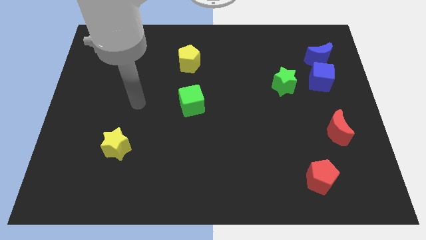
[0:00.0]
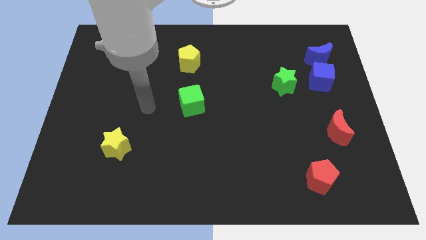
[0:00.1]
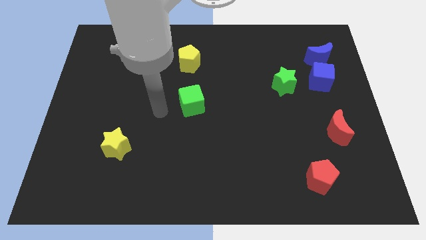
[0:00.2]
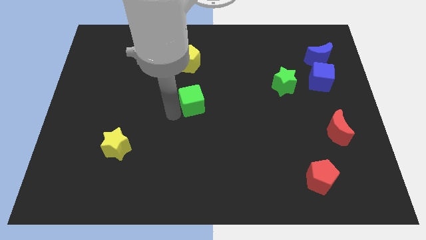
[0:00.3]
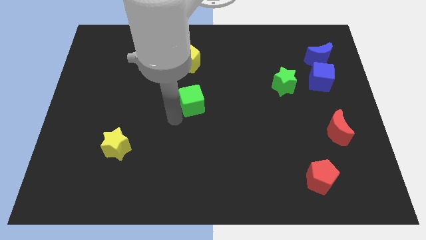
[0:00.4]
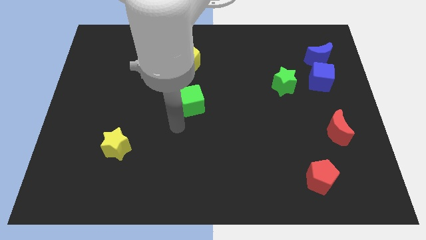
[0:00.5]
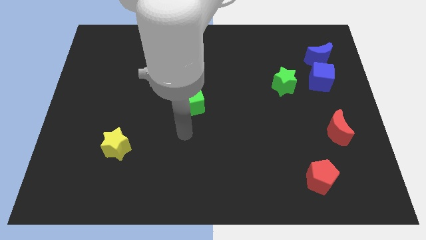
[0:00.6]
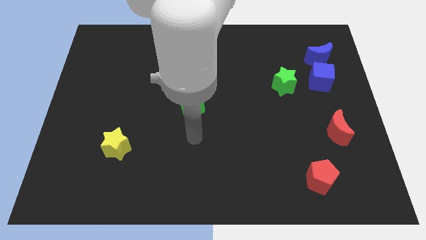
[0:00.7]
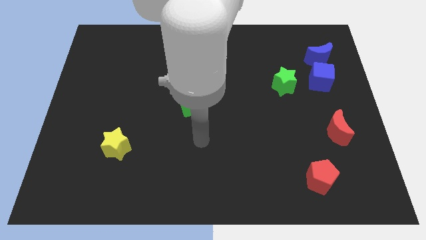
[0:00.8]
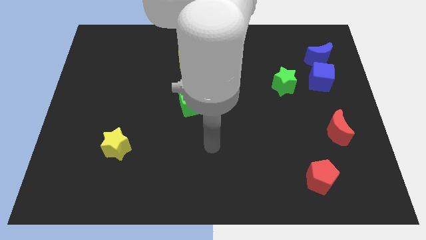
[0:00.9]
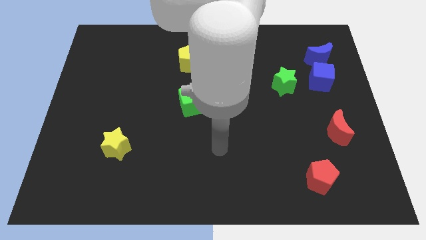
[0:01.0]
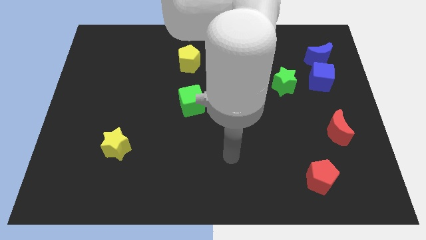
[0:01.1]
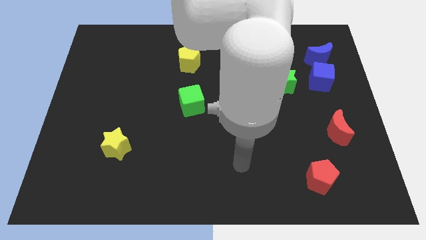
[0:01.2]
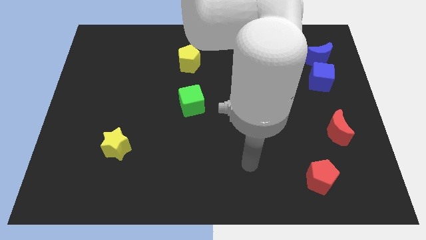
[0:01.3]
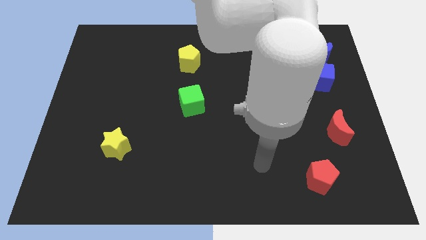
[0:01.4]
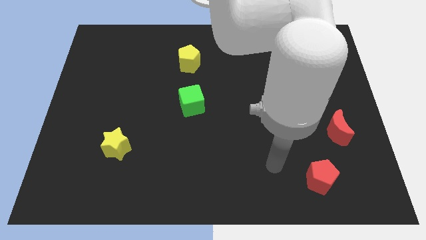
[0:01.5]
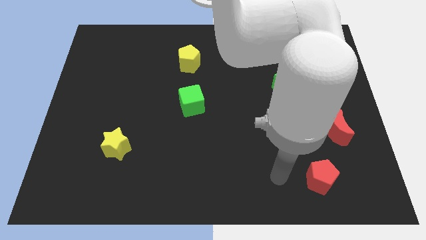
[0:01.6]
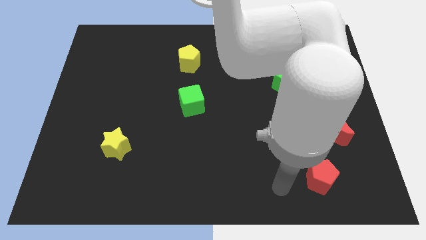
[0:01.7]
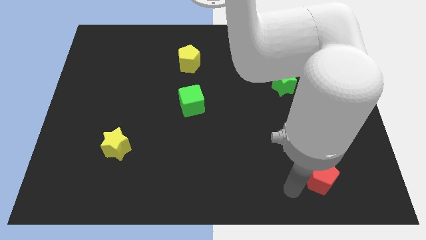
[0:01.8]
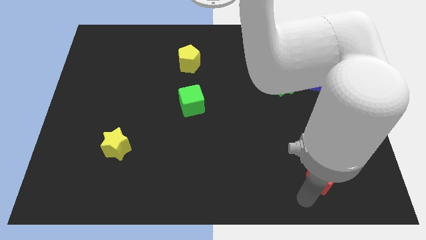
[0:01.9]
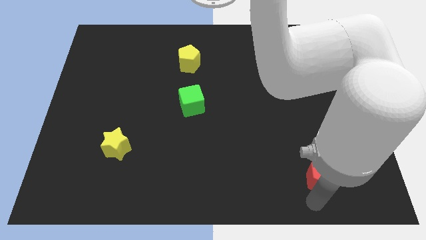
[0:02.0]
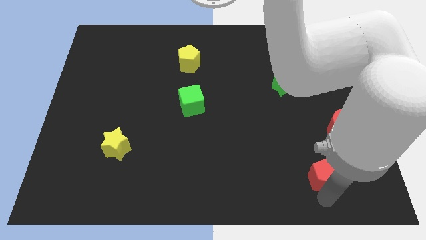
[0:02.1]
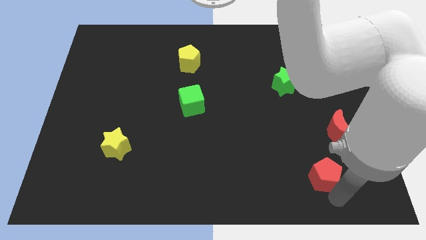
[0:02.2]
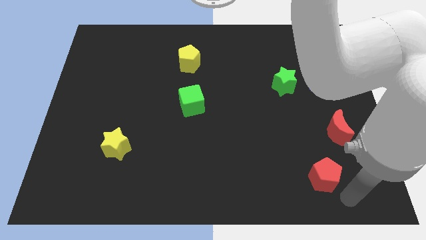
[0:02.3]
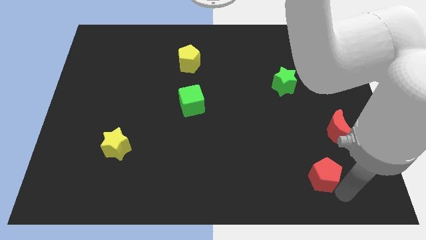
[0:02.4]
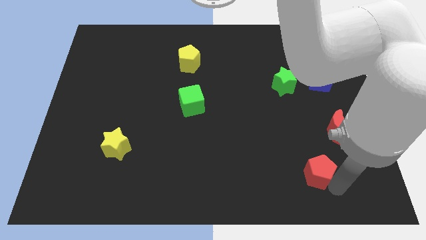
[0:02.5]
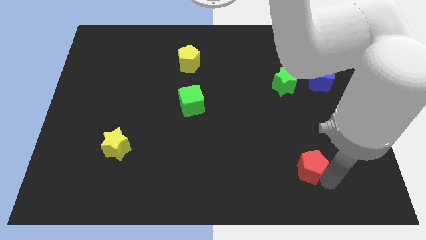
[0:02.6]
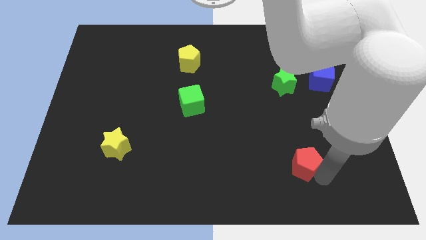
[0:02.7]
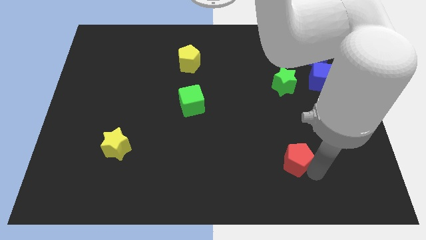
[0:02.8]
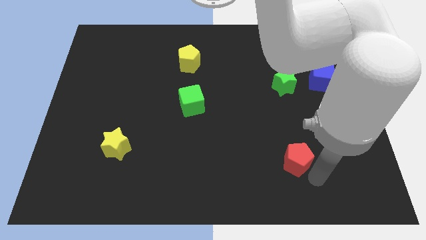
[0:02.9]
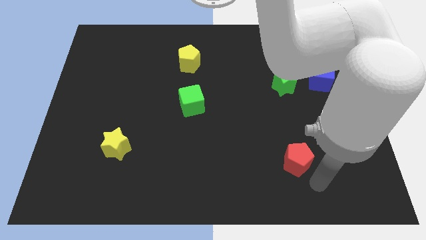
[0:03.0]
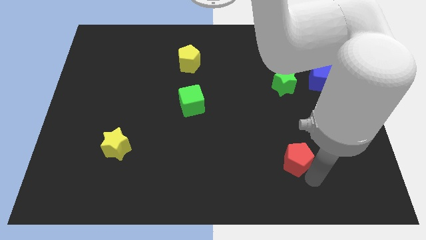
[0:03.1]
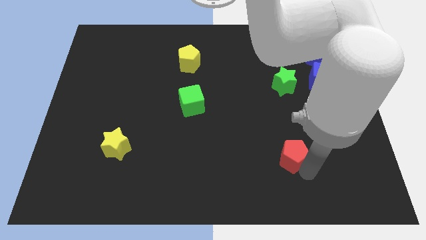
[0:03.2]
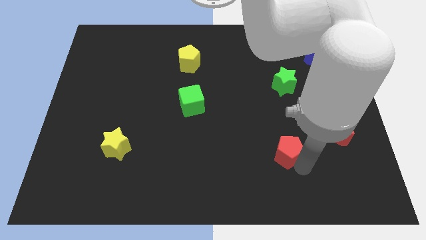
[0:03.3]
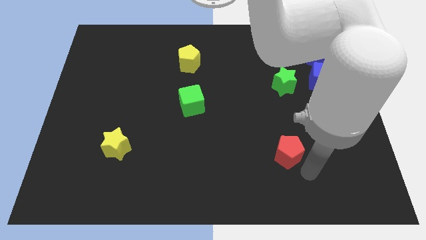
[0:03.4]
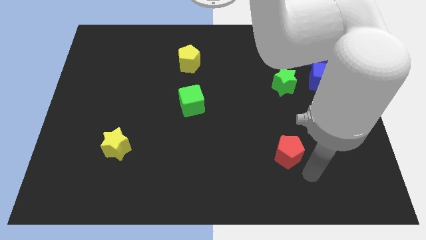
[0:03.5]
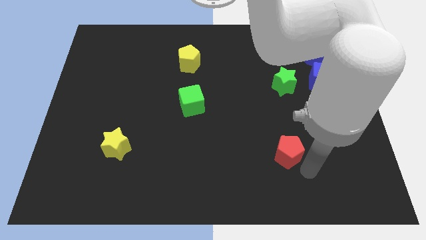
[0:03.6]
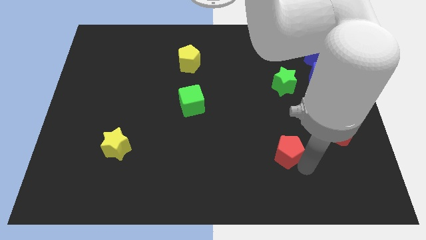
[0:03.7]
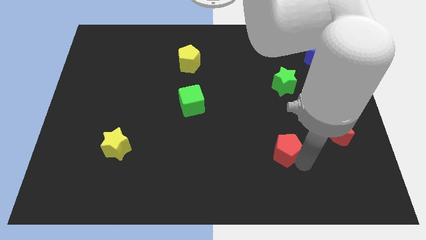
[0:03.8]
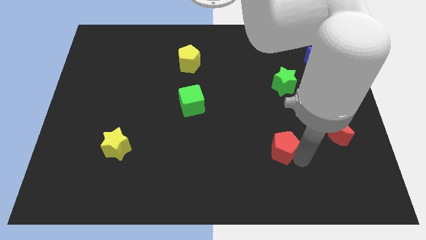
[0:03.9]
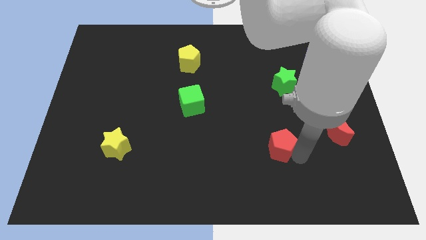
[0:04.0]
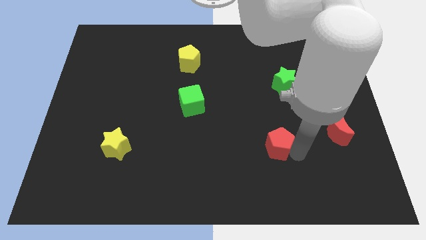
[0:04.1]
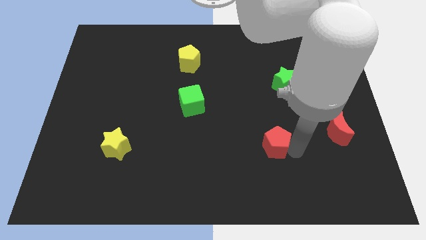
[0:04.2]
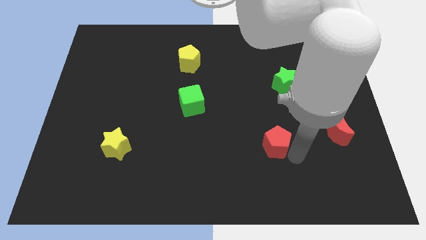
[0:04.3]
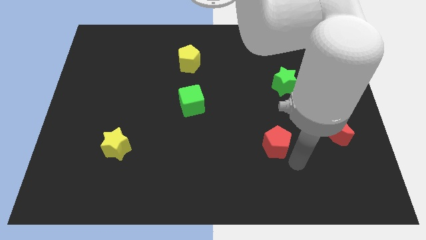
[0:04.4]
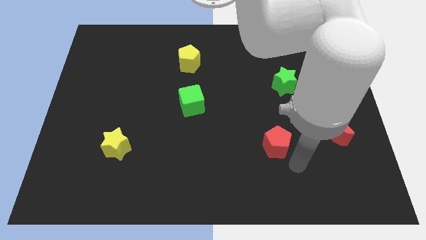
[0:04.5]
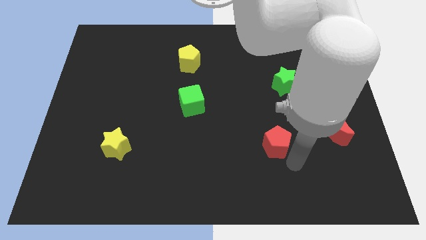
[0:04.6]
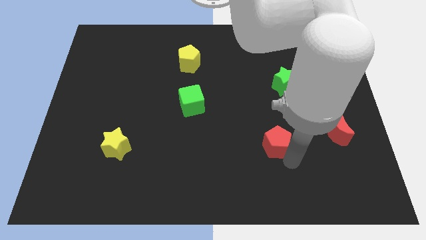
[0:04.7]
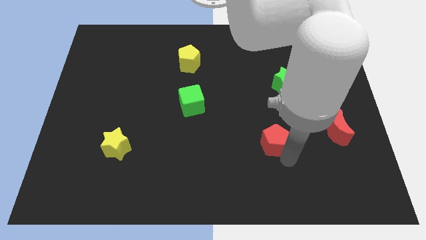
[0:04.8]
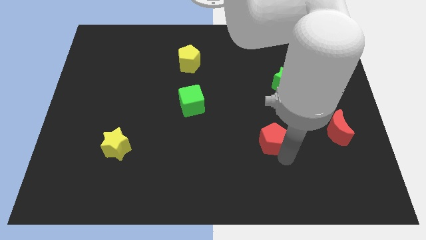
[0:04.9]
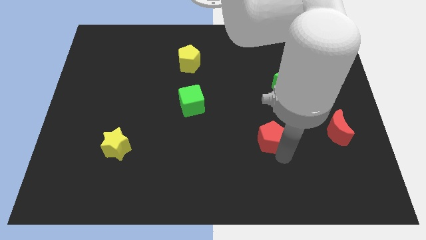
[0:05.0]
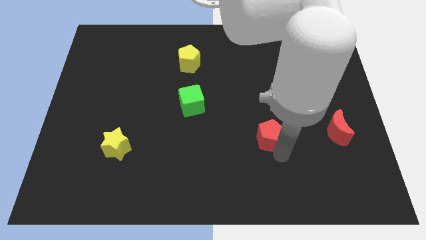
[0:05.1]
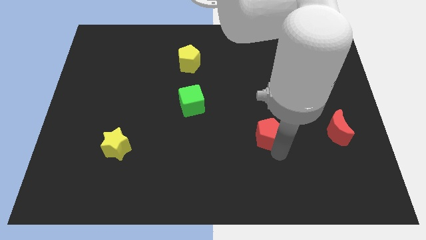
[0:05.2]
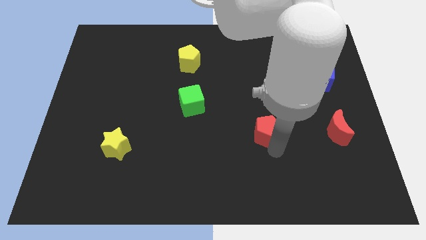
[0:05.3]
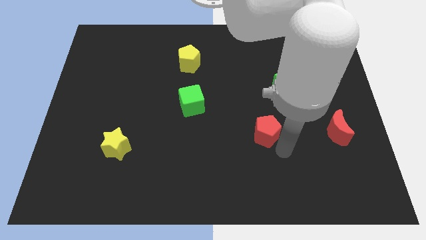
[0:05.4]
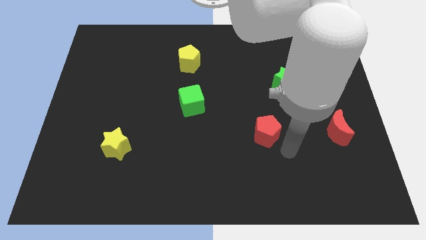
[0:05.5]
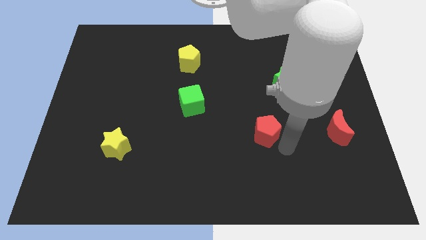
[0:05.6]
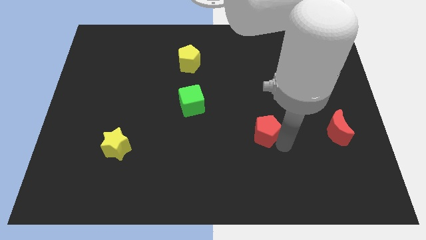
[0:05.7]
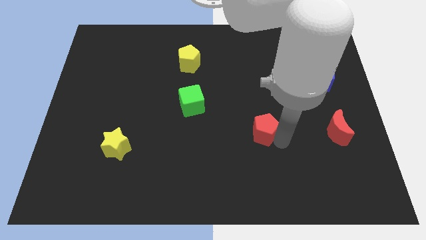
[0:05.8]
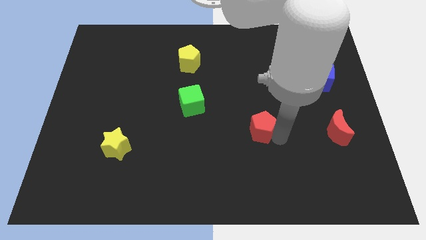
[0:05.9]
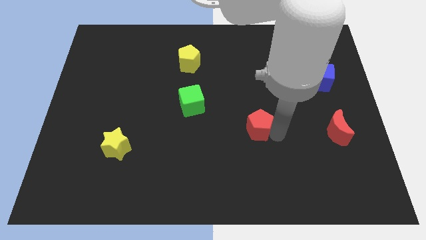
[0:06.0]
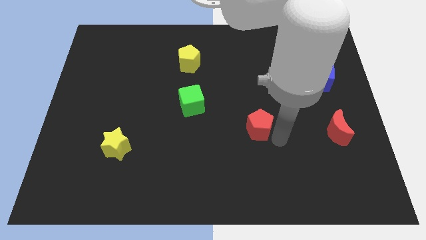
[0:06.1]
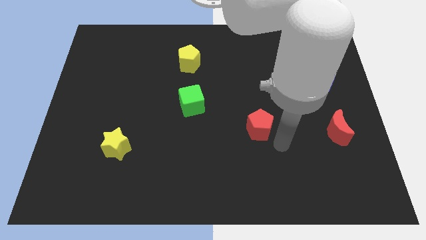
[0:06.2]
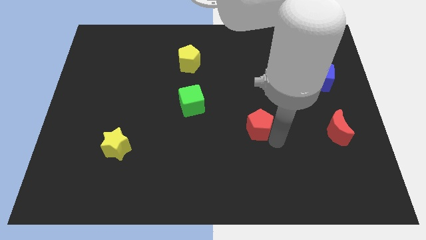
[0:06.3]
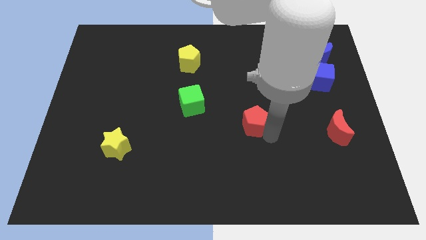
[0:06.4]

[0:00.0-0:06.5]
push the red pentagon to the middle
